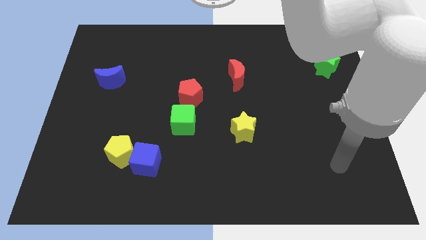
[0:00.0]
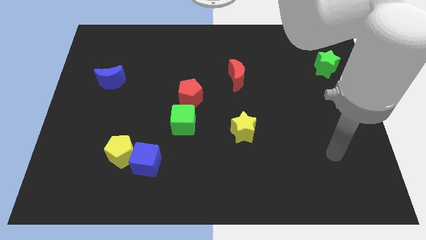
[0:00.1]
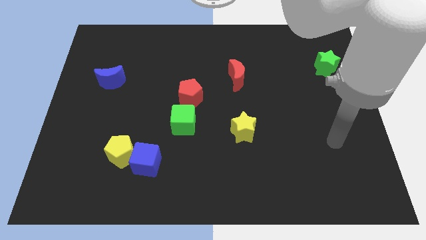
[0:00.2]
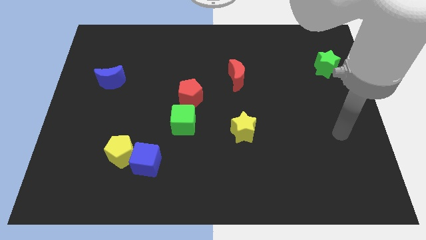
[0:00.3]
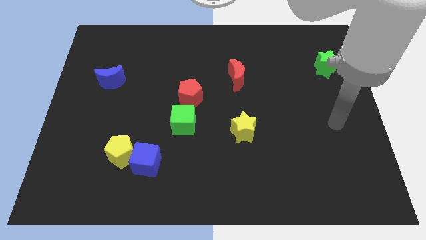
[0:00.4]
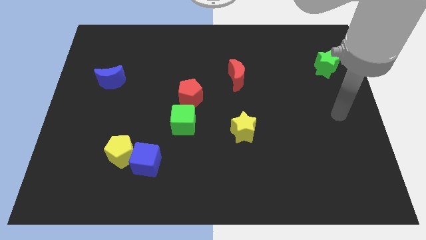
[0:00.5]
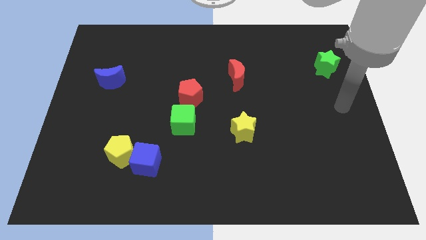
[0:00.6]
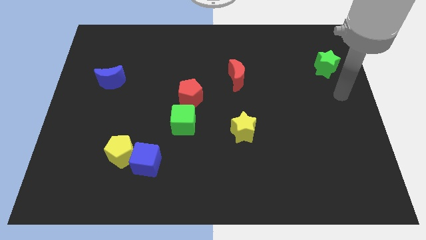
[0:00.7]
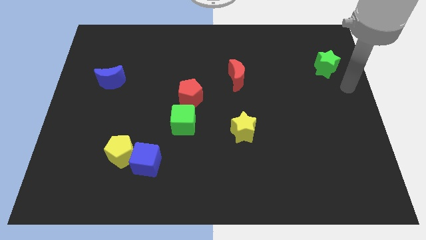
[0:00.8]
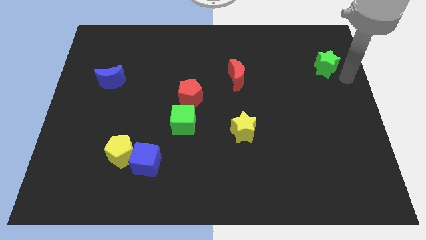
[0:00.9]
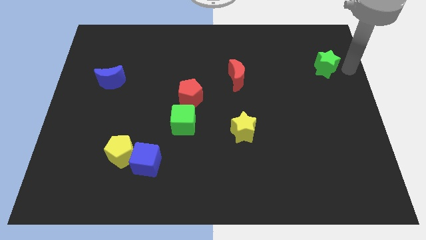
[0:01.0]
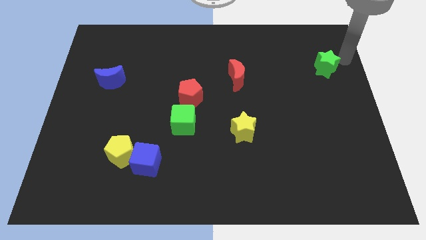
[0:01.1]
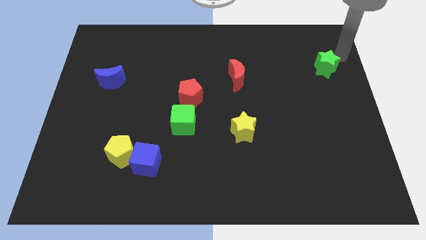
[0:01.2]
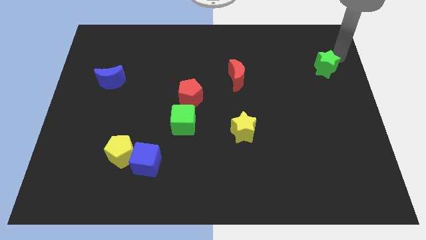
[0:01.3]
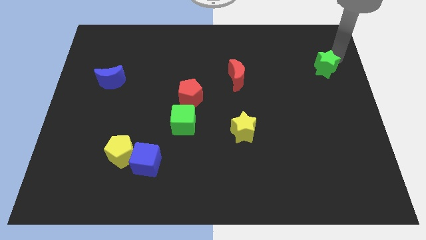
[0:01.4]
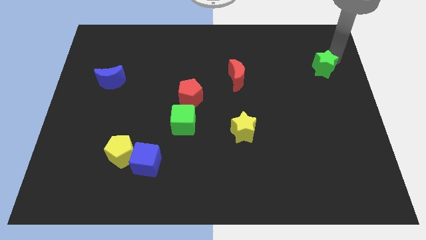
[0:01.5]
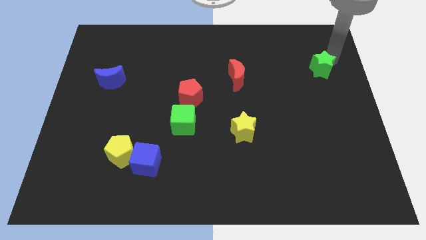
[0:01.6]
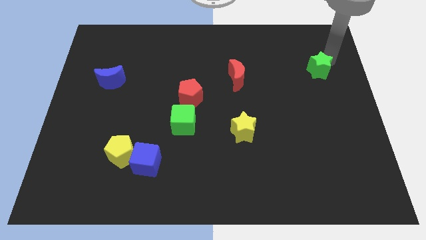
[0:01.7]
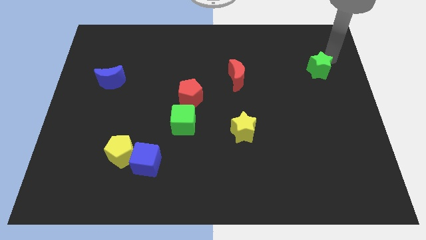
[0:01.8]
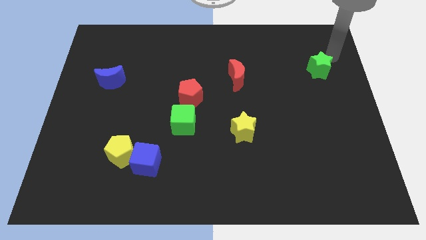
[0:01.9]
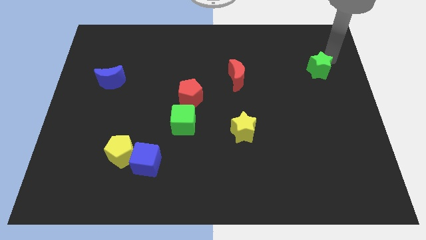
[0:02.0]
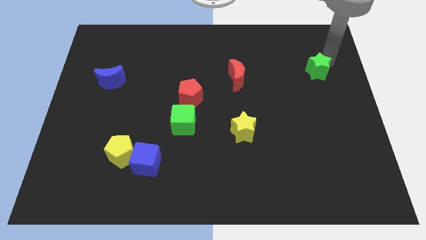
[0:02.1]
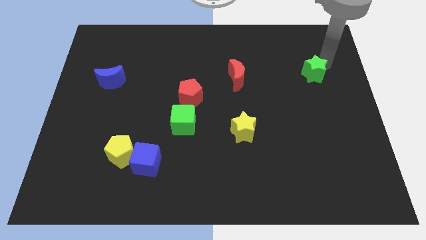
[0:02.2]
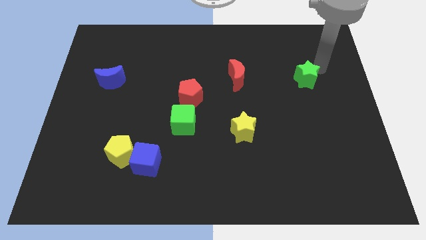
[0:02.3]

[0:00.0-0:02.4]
slightly slide the green star down and left

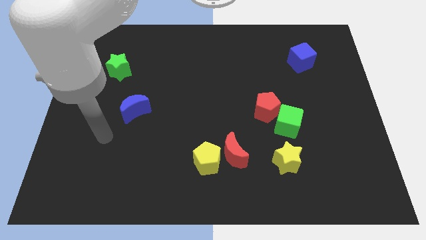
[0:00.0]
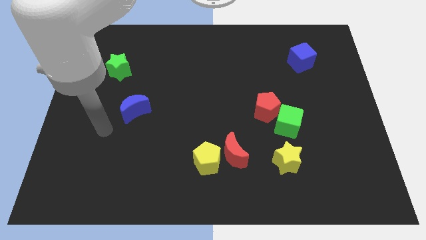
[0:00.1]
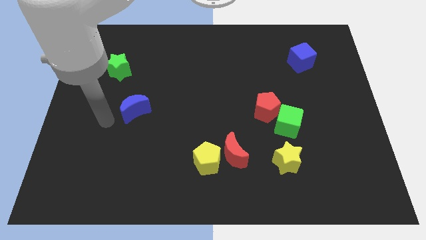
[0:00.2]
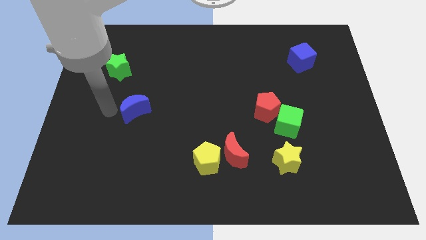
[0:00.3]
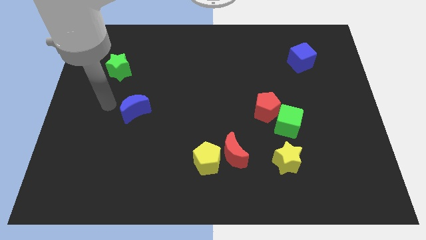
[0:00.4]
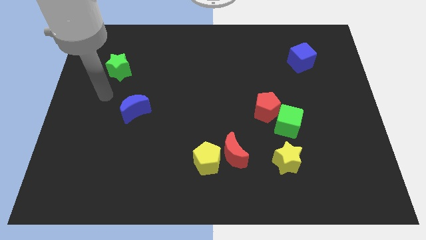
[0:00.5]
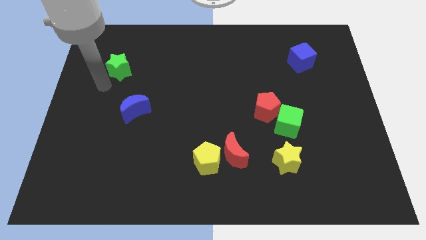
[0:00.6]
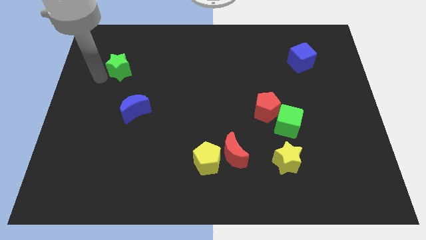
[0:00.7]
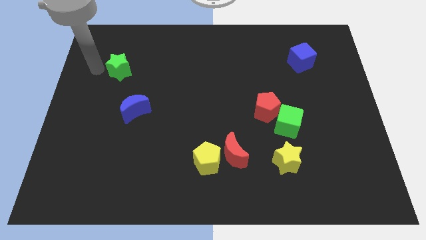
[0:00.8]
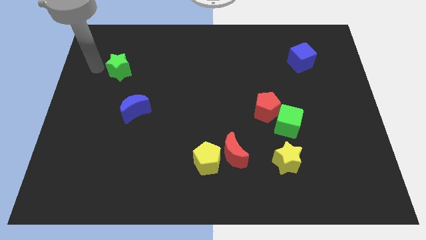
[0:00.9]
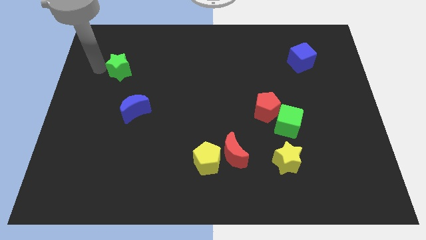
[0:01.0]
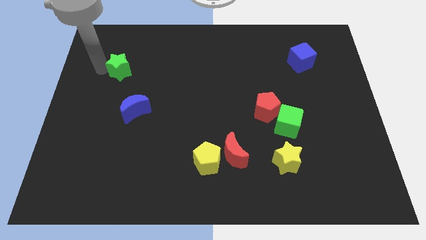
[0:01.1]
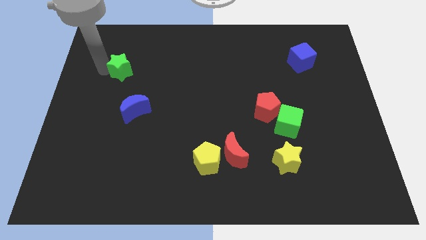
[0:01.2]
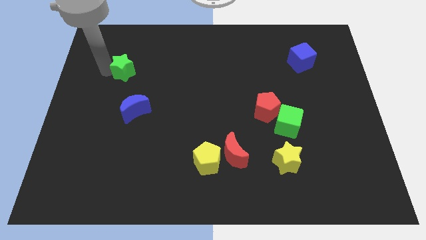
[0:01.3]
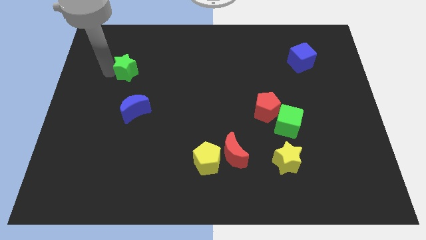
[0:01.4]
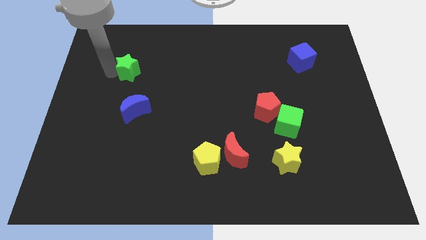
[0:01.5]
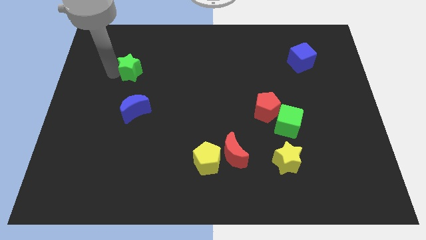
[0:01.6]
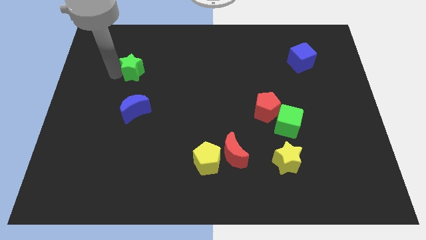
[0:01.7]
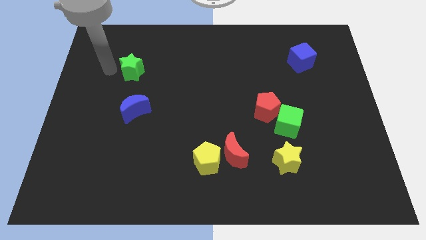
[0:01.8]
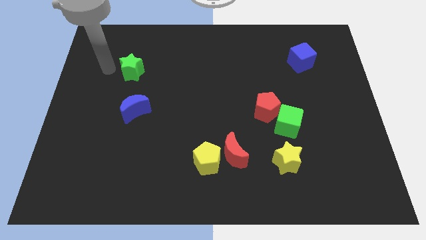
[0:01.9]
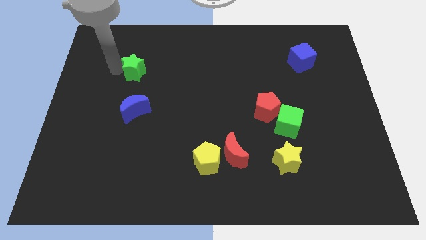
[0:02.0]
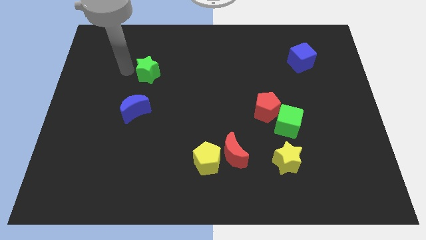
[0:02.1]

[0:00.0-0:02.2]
slightly slide the green star to the right

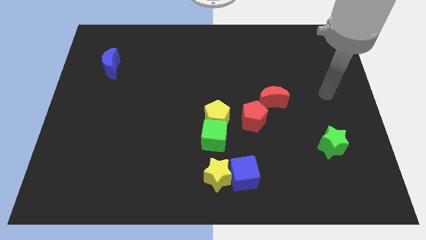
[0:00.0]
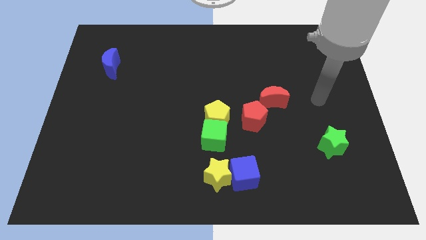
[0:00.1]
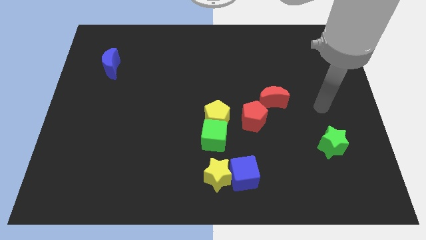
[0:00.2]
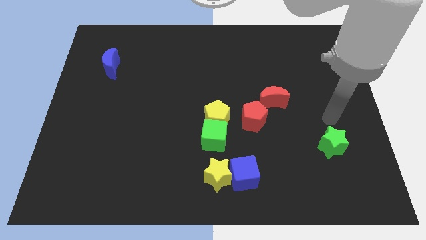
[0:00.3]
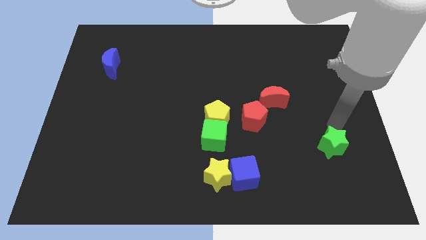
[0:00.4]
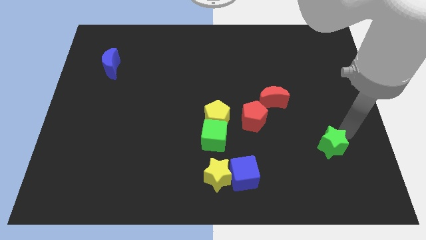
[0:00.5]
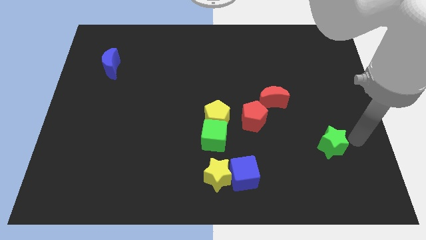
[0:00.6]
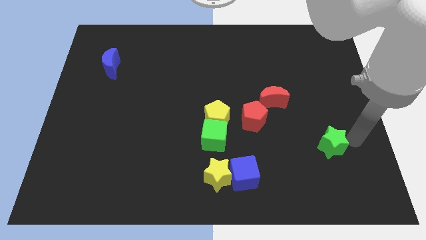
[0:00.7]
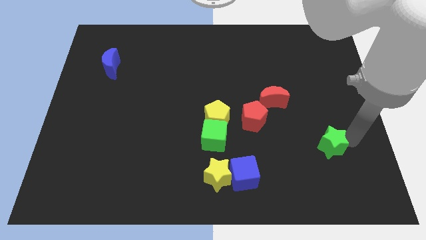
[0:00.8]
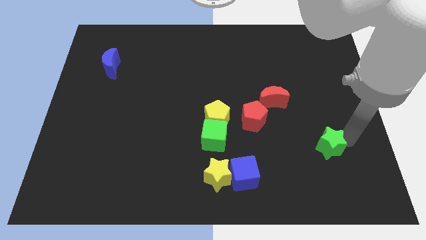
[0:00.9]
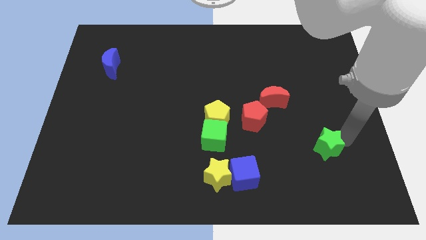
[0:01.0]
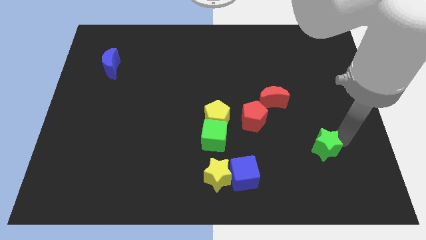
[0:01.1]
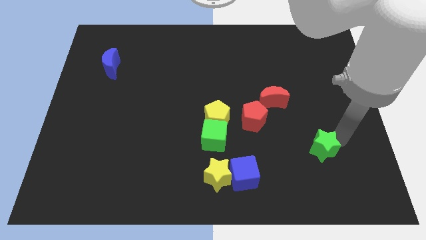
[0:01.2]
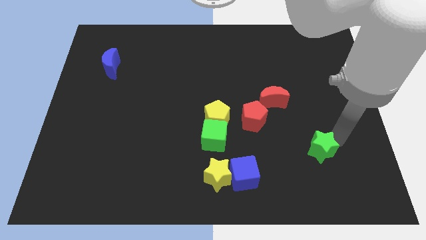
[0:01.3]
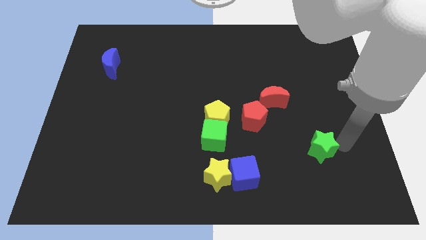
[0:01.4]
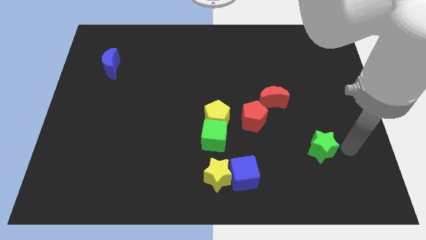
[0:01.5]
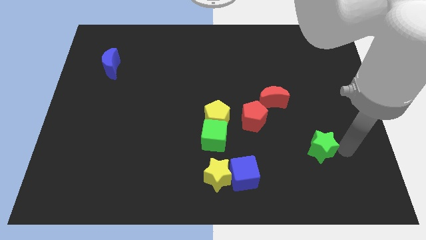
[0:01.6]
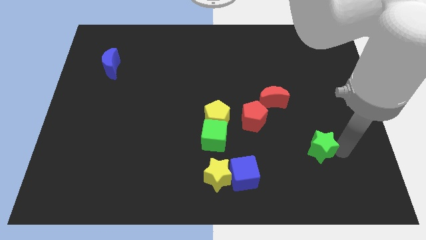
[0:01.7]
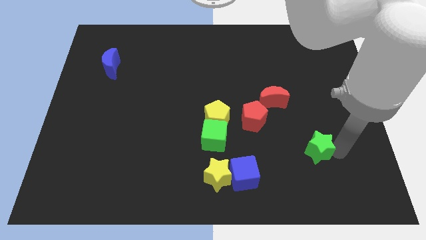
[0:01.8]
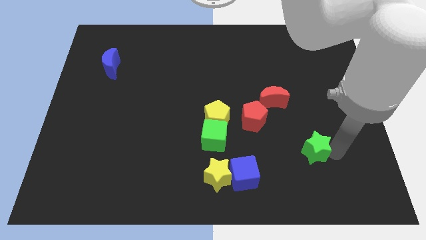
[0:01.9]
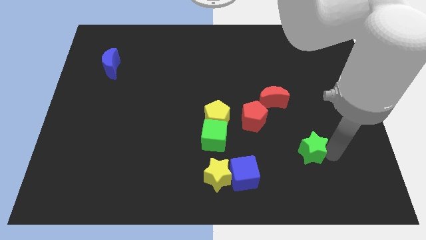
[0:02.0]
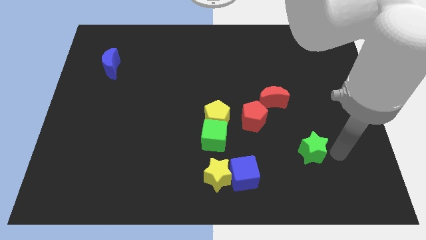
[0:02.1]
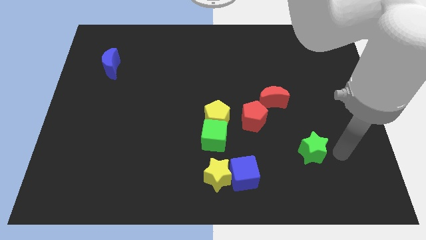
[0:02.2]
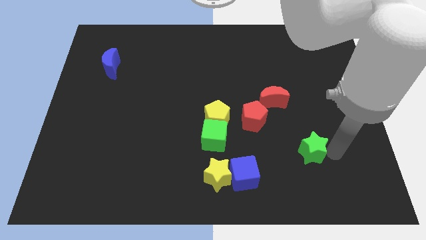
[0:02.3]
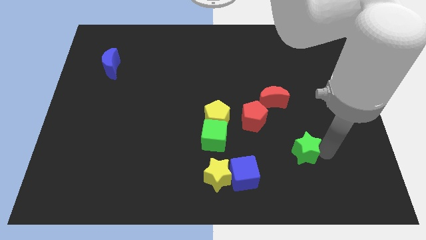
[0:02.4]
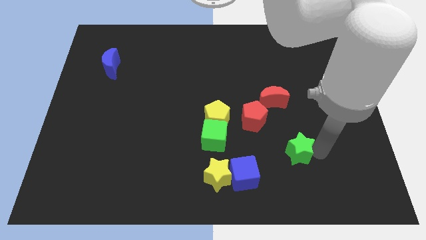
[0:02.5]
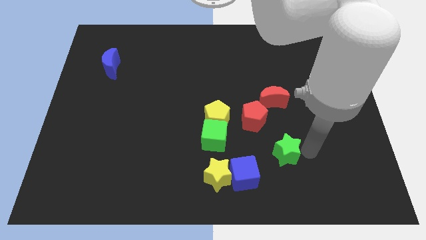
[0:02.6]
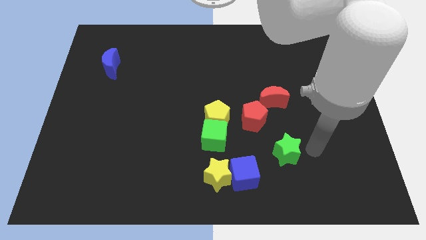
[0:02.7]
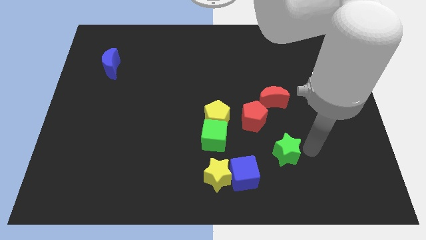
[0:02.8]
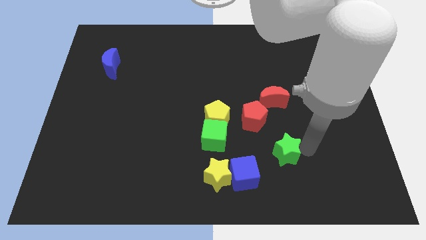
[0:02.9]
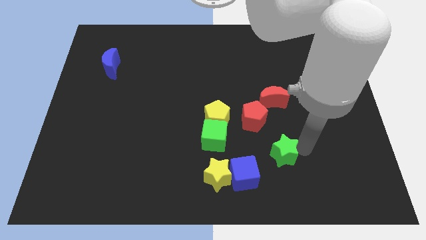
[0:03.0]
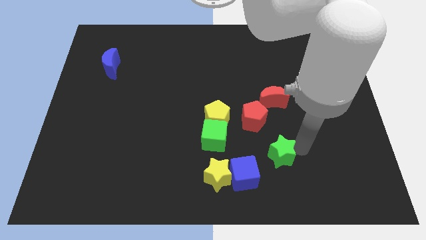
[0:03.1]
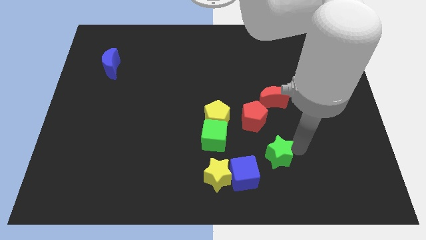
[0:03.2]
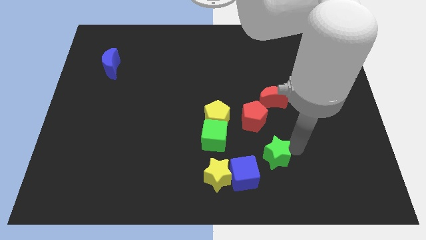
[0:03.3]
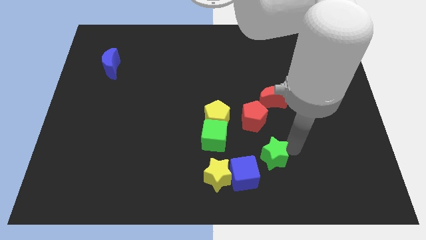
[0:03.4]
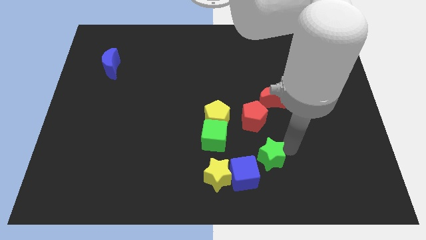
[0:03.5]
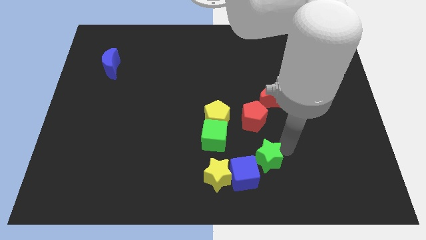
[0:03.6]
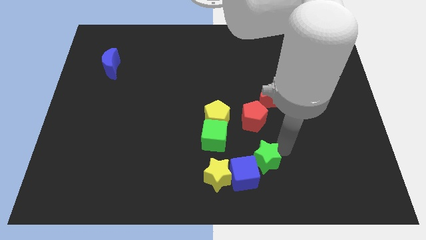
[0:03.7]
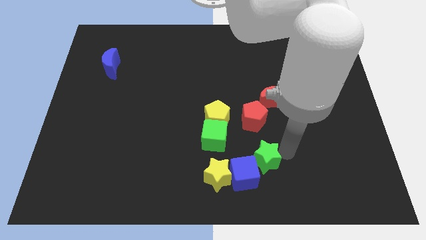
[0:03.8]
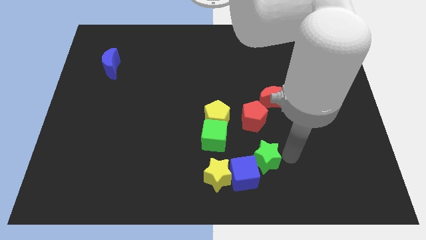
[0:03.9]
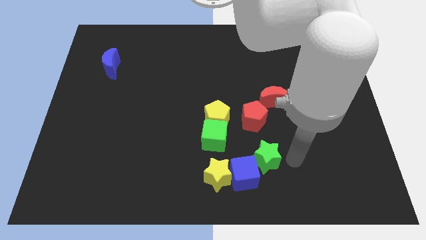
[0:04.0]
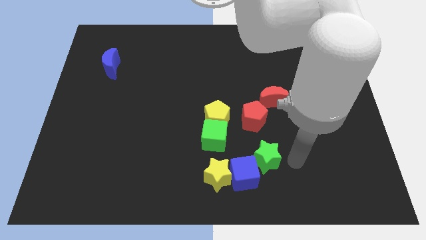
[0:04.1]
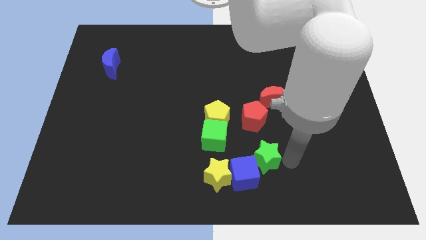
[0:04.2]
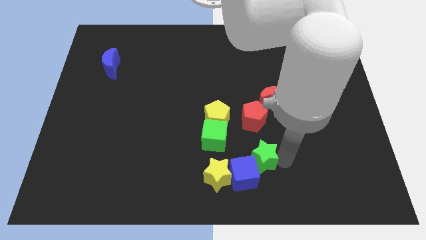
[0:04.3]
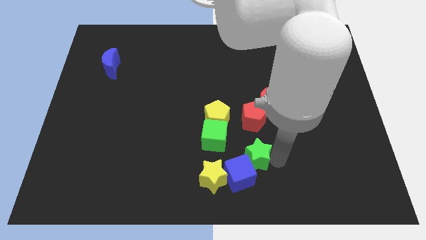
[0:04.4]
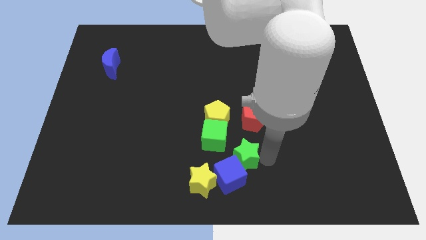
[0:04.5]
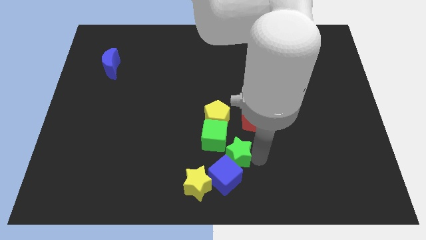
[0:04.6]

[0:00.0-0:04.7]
push the green star left
